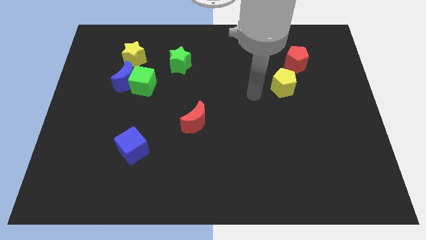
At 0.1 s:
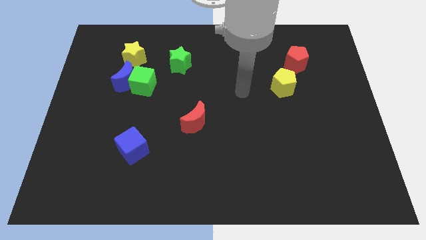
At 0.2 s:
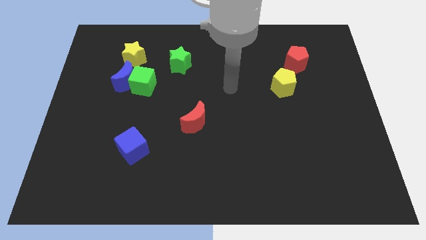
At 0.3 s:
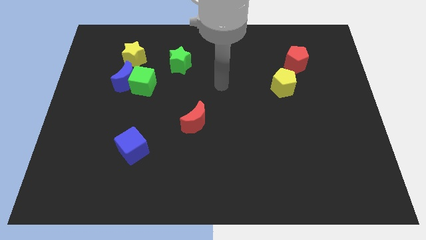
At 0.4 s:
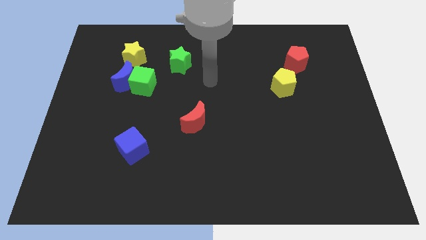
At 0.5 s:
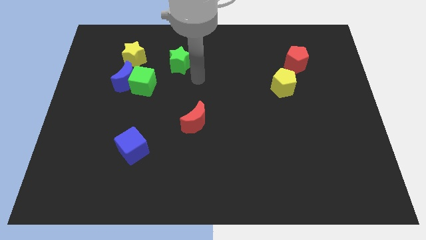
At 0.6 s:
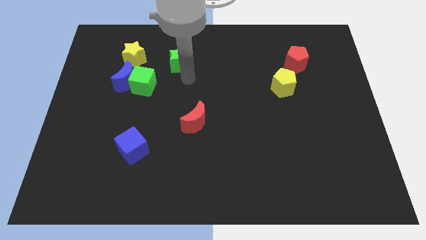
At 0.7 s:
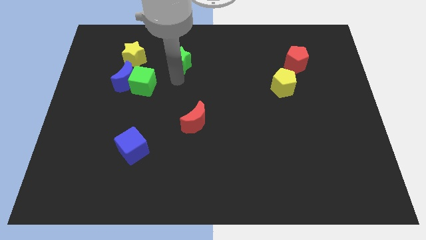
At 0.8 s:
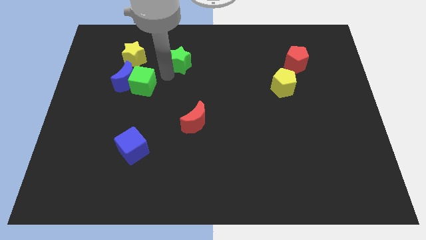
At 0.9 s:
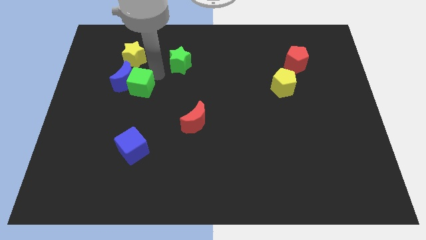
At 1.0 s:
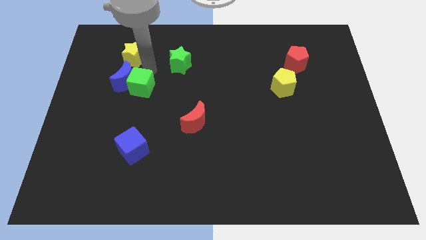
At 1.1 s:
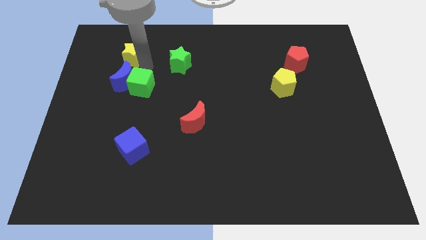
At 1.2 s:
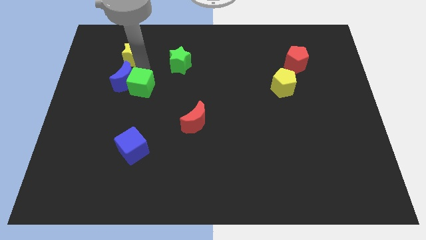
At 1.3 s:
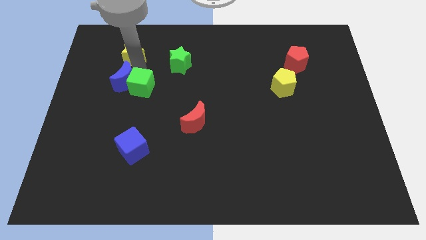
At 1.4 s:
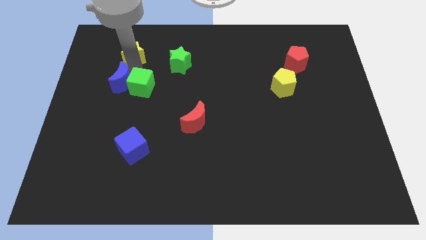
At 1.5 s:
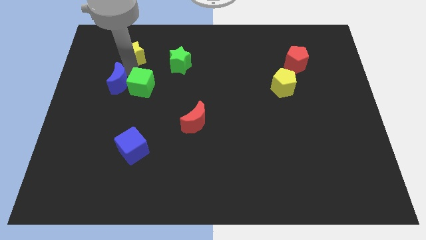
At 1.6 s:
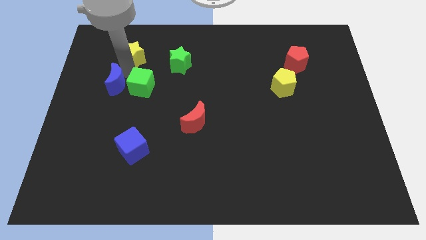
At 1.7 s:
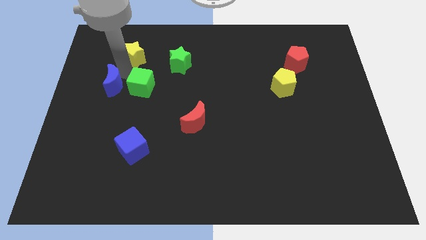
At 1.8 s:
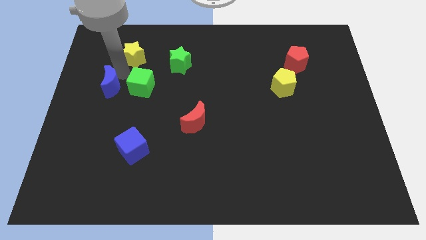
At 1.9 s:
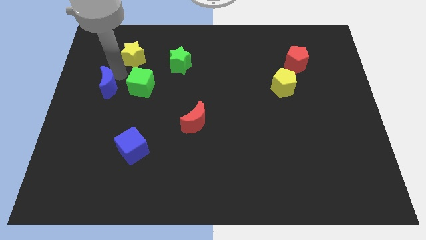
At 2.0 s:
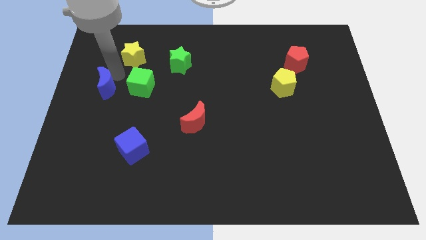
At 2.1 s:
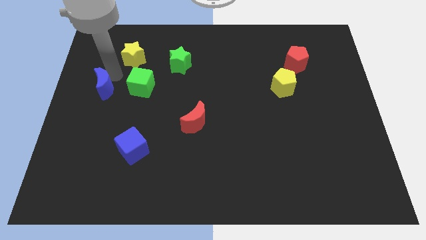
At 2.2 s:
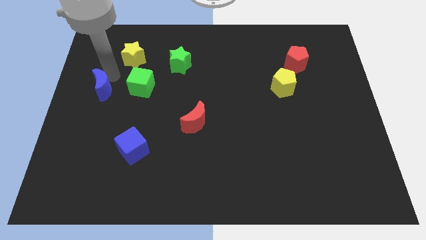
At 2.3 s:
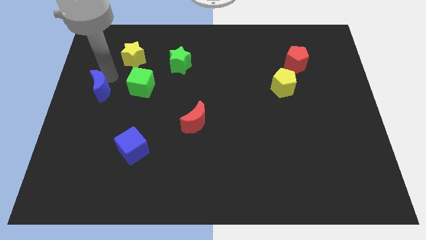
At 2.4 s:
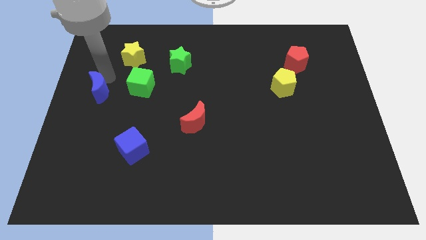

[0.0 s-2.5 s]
separate the blue moon from the green cube and yellow star

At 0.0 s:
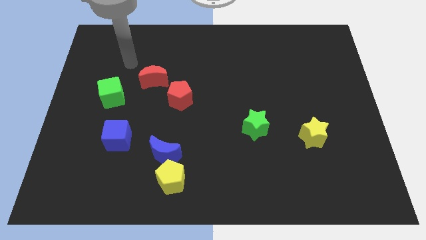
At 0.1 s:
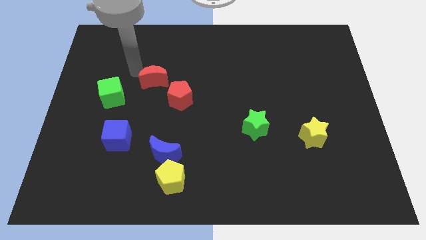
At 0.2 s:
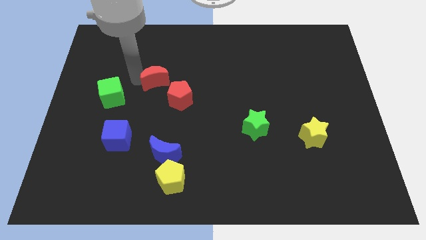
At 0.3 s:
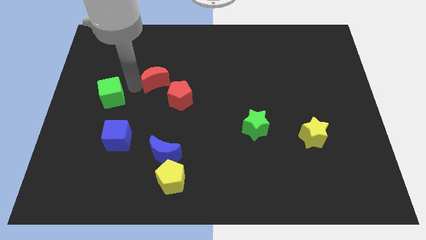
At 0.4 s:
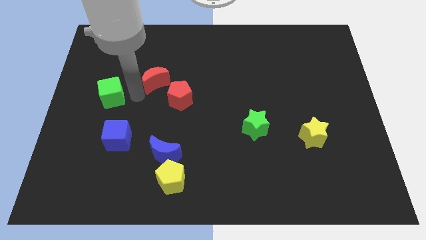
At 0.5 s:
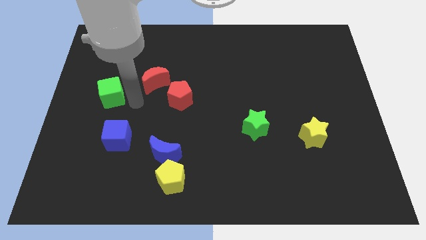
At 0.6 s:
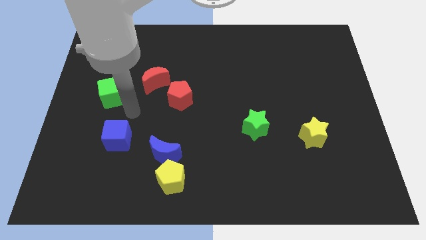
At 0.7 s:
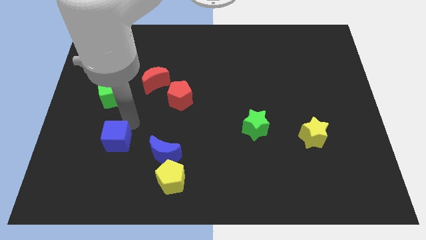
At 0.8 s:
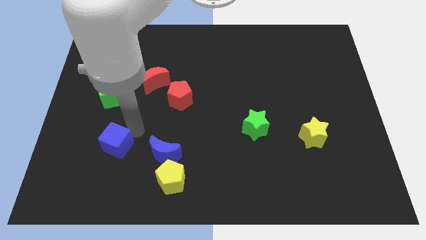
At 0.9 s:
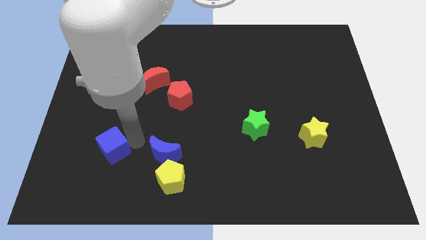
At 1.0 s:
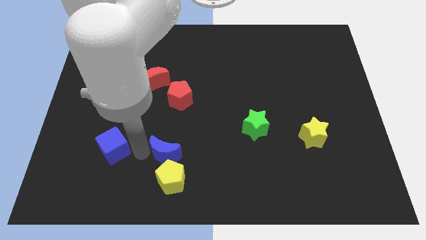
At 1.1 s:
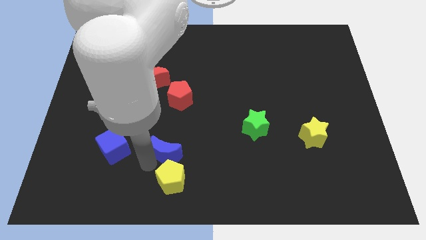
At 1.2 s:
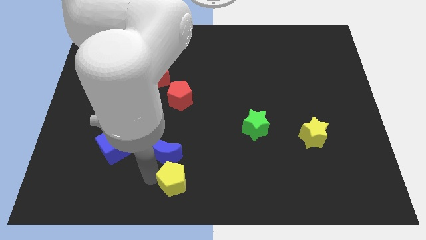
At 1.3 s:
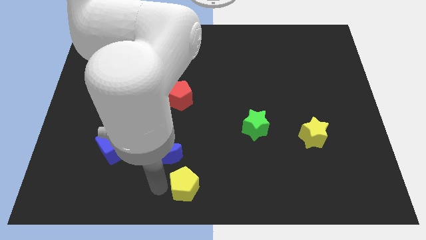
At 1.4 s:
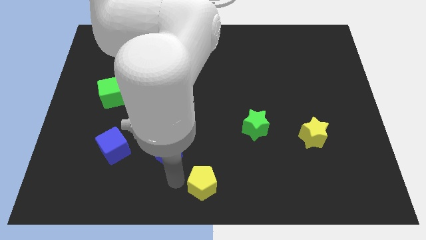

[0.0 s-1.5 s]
pull the blue moon apart from the yellow pentagon

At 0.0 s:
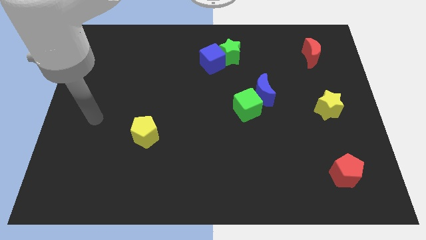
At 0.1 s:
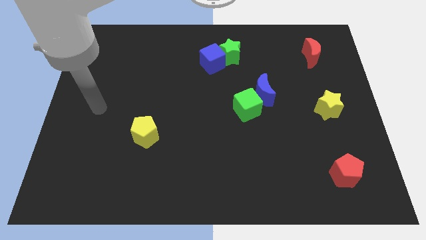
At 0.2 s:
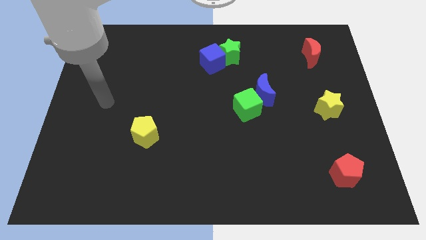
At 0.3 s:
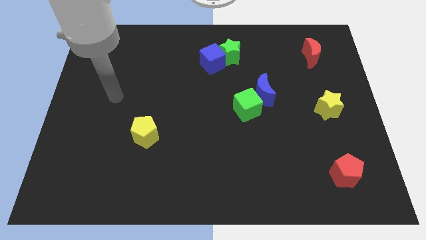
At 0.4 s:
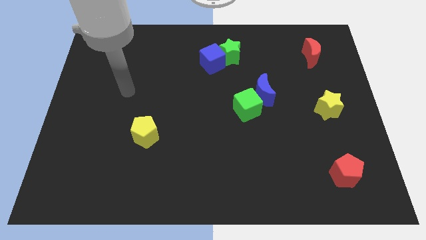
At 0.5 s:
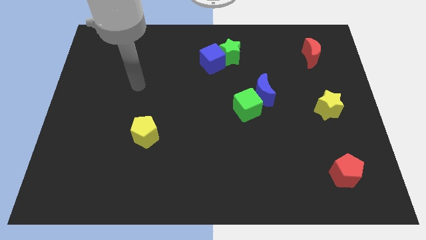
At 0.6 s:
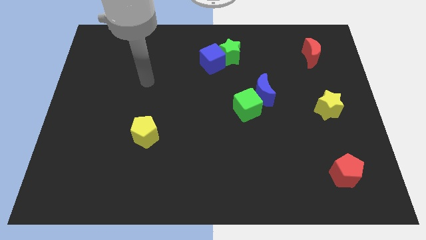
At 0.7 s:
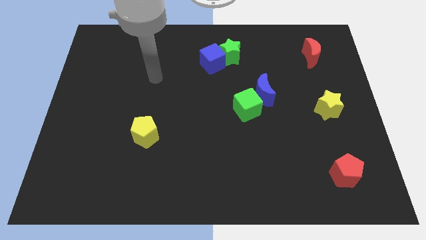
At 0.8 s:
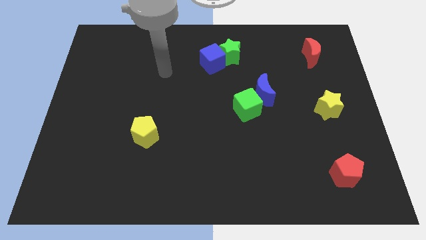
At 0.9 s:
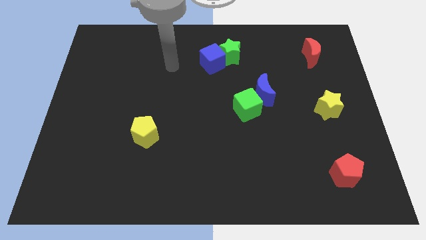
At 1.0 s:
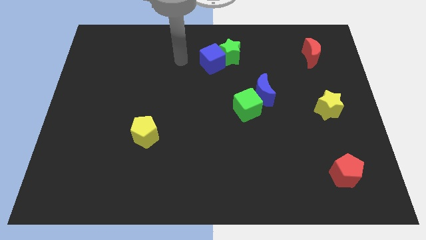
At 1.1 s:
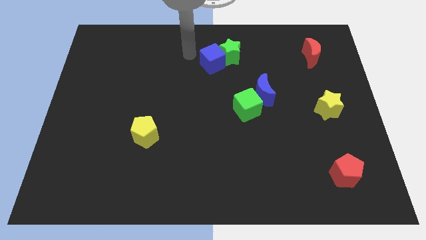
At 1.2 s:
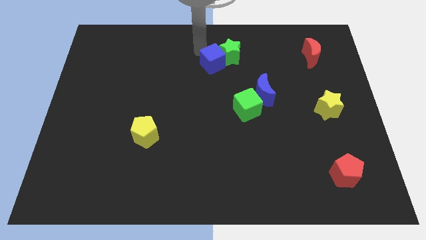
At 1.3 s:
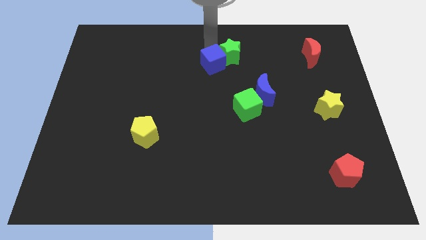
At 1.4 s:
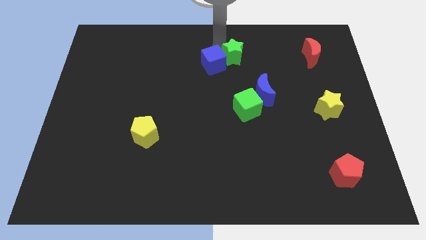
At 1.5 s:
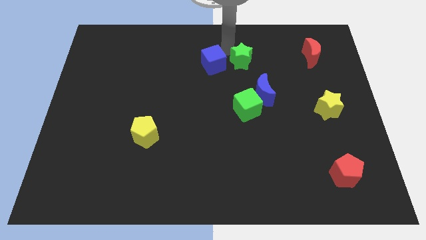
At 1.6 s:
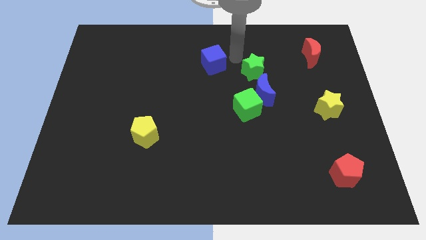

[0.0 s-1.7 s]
move the blue cube away from the green star

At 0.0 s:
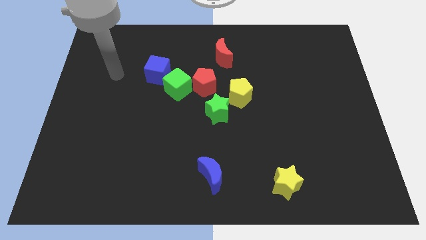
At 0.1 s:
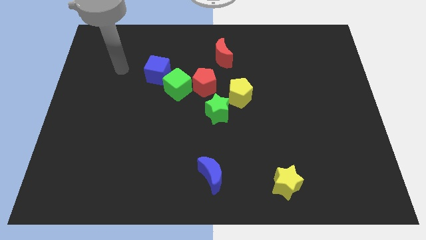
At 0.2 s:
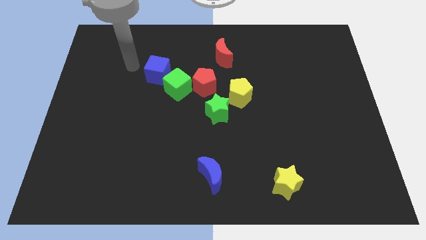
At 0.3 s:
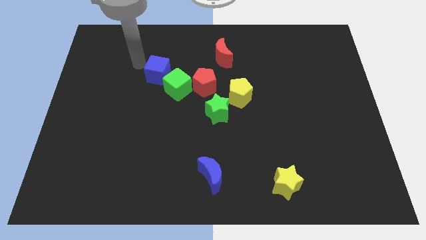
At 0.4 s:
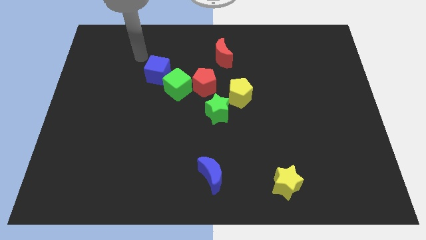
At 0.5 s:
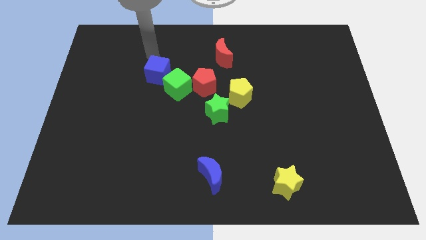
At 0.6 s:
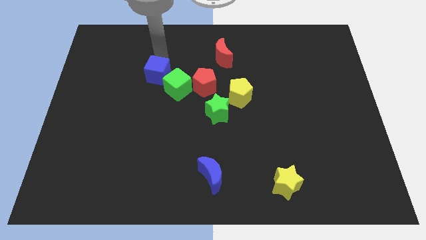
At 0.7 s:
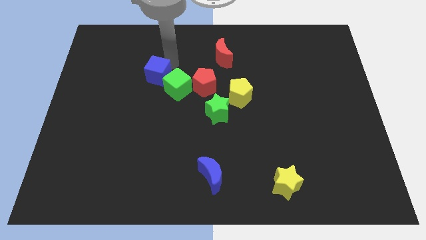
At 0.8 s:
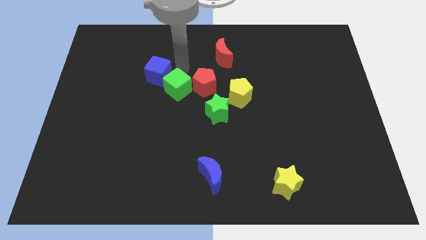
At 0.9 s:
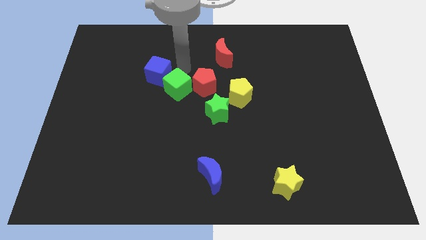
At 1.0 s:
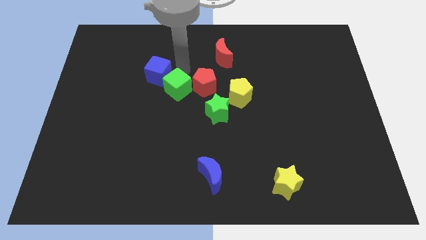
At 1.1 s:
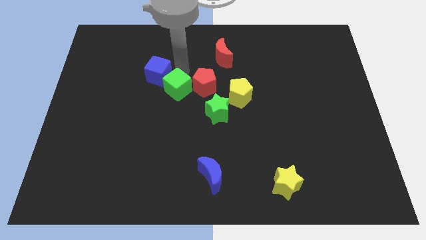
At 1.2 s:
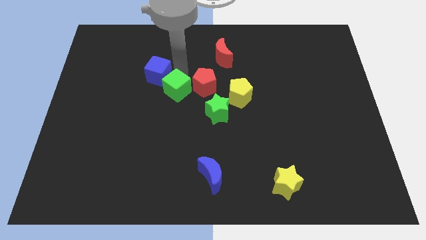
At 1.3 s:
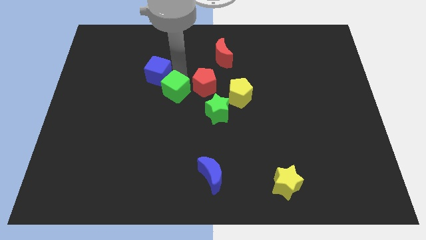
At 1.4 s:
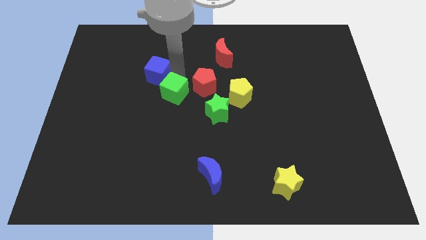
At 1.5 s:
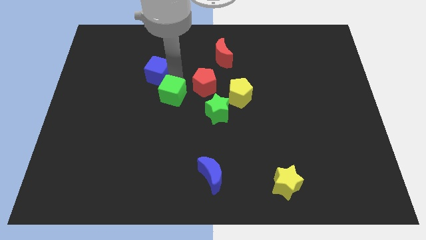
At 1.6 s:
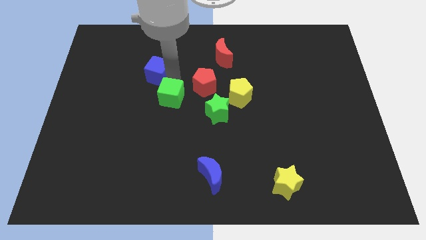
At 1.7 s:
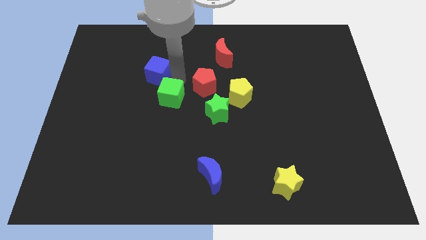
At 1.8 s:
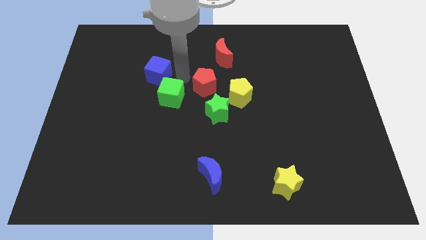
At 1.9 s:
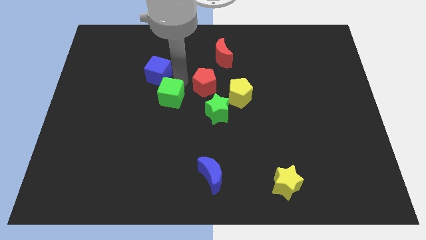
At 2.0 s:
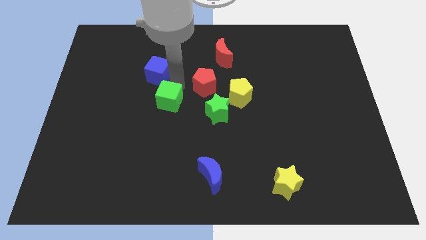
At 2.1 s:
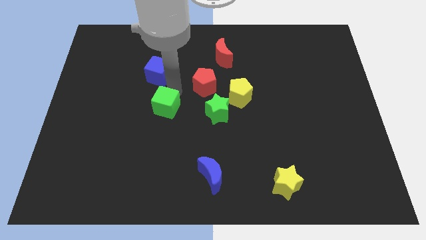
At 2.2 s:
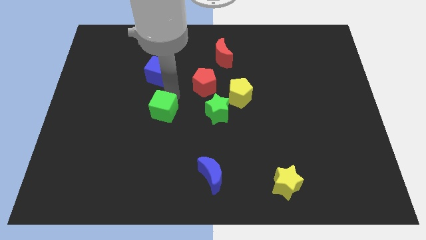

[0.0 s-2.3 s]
separate the green cube from the red pentagon and blue cube

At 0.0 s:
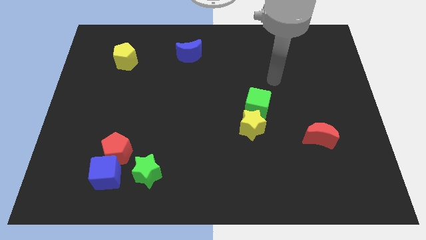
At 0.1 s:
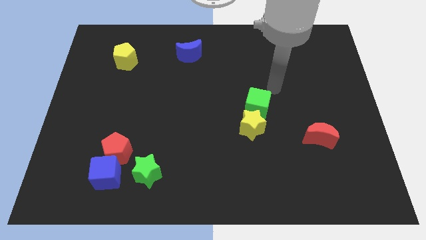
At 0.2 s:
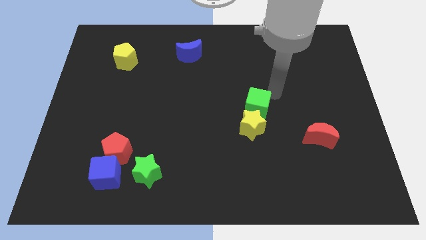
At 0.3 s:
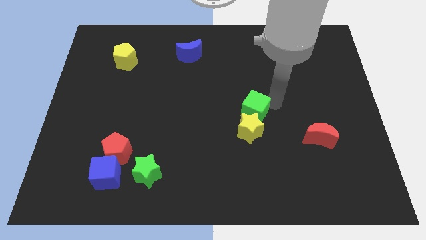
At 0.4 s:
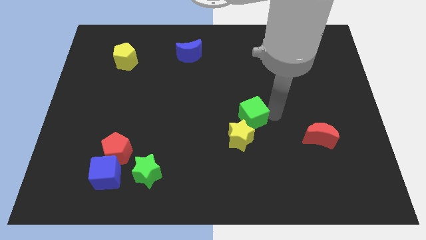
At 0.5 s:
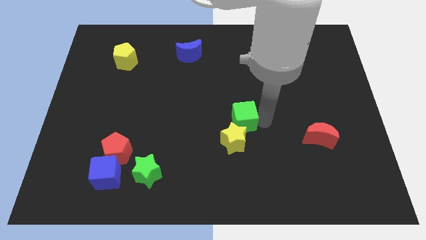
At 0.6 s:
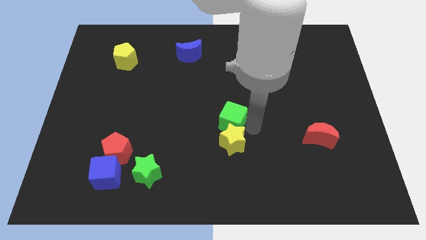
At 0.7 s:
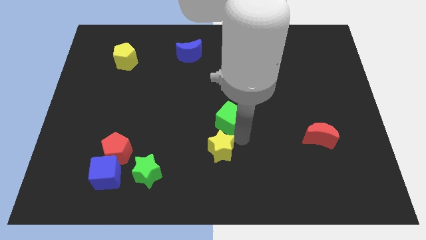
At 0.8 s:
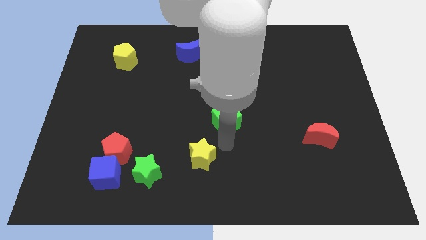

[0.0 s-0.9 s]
separate the green cube from the yellow star

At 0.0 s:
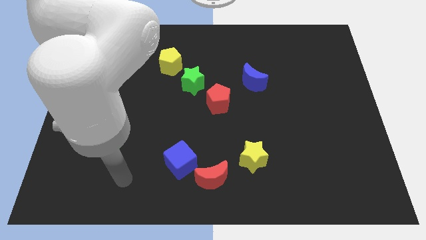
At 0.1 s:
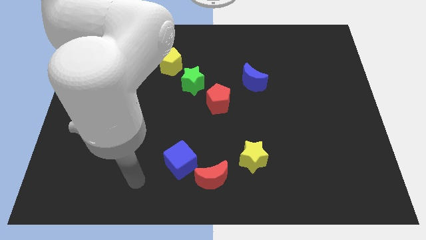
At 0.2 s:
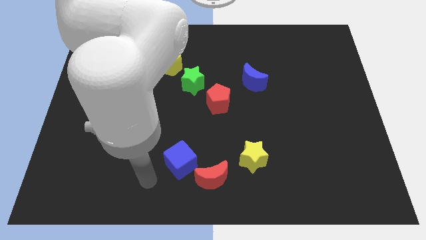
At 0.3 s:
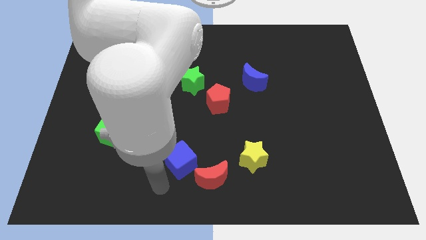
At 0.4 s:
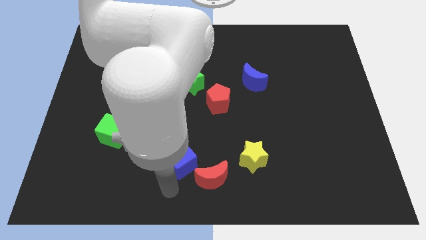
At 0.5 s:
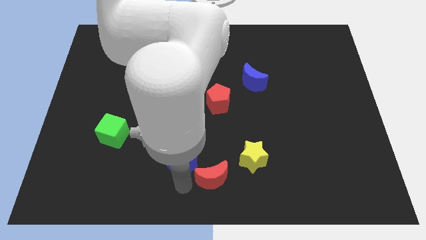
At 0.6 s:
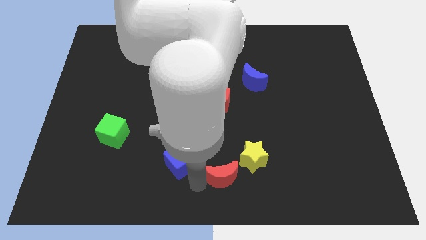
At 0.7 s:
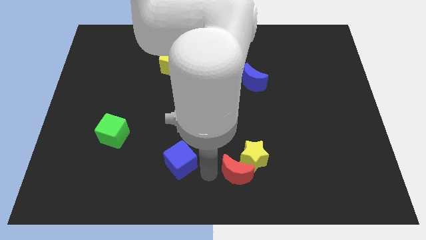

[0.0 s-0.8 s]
move the blue cube away from the red moon
